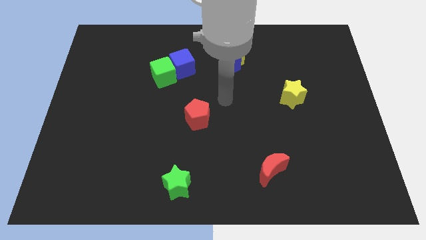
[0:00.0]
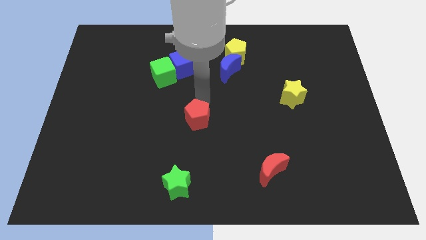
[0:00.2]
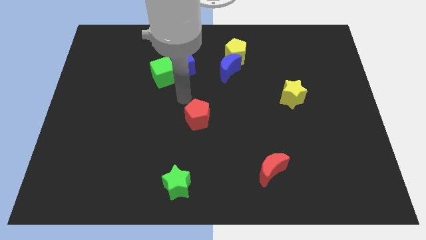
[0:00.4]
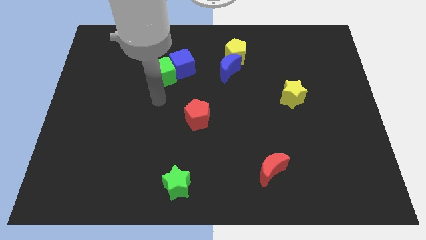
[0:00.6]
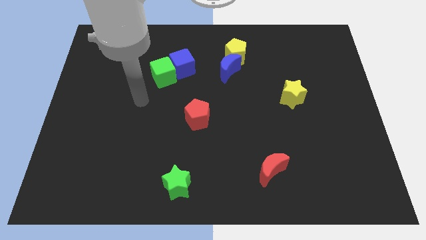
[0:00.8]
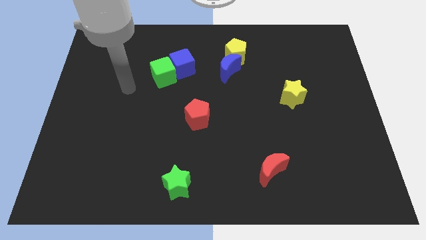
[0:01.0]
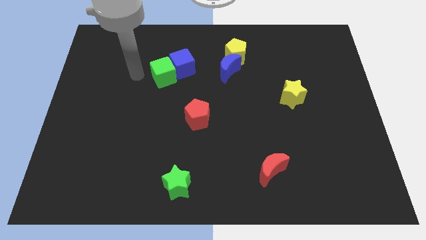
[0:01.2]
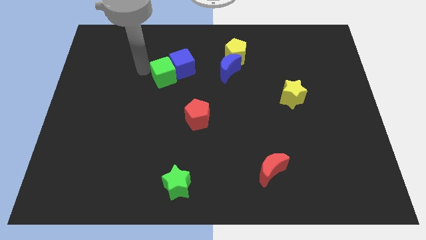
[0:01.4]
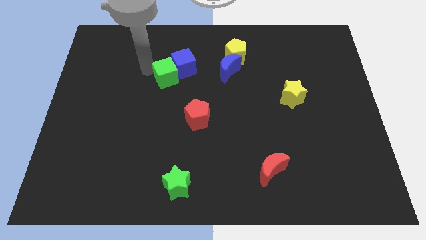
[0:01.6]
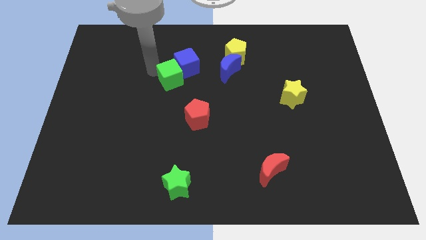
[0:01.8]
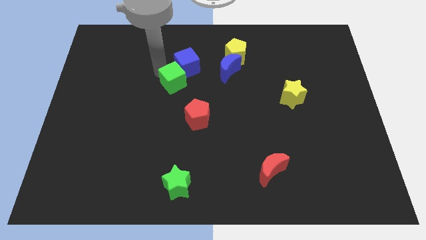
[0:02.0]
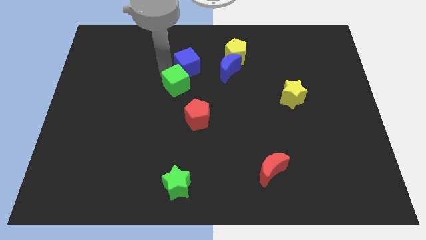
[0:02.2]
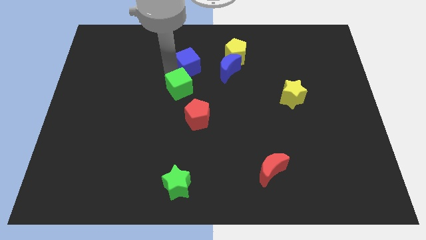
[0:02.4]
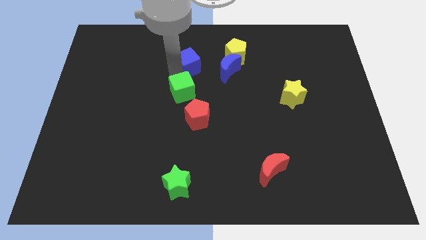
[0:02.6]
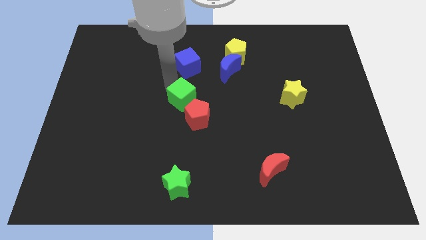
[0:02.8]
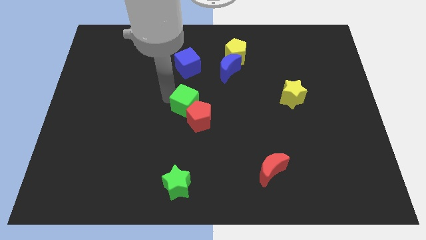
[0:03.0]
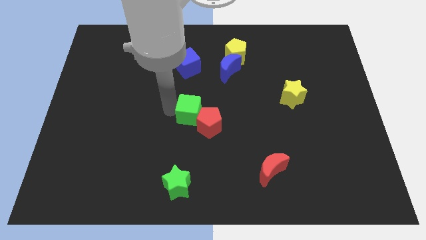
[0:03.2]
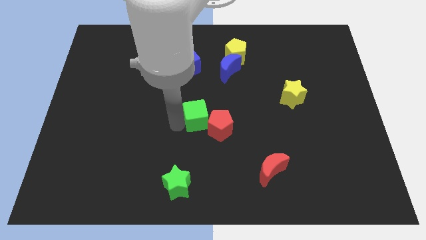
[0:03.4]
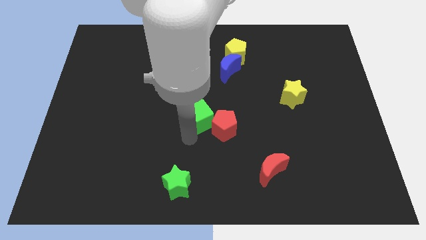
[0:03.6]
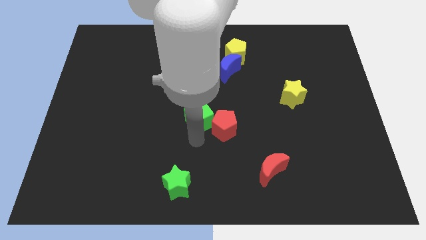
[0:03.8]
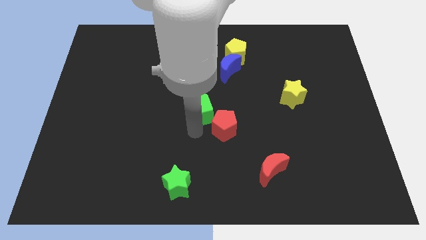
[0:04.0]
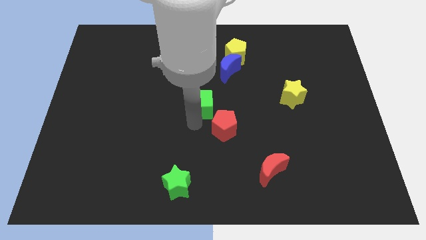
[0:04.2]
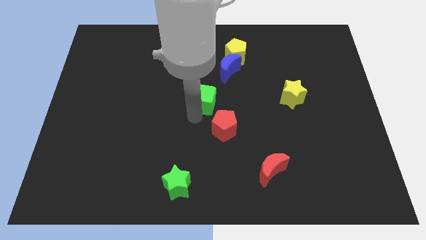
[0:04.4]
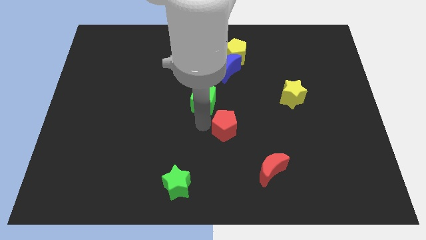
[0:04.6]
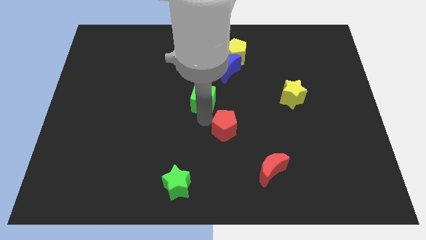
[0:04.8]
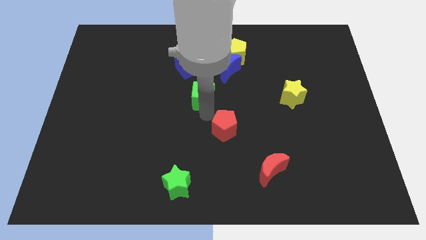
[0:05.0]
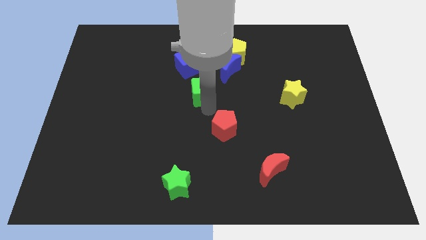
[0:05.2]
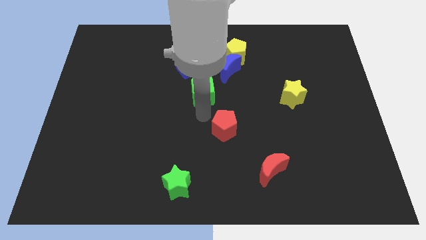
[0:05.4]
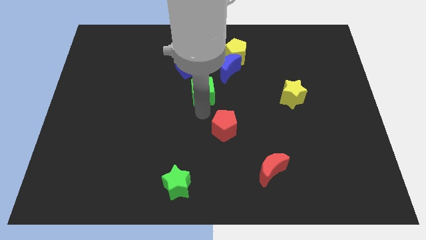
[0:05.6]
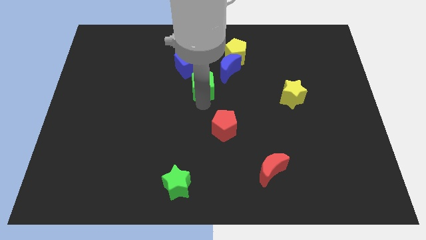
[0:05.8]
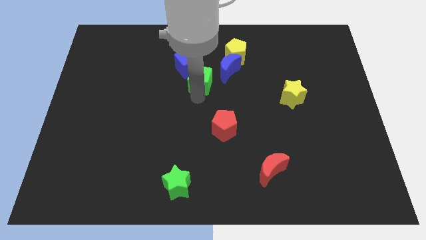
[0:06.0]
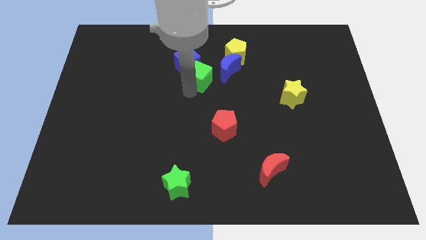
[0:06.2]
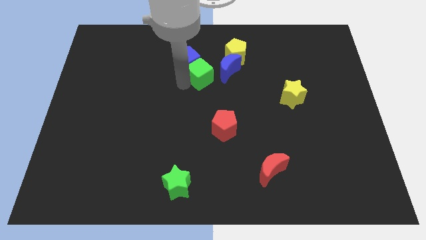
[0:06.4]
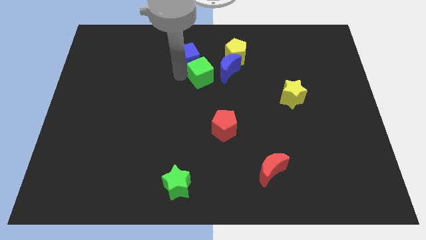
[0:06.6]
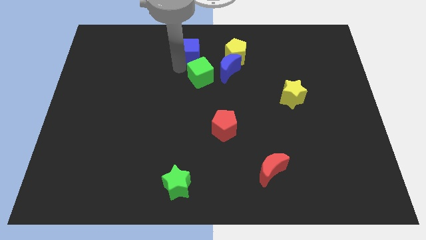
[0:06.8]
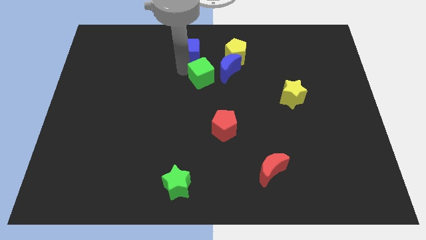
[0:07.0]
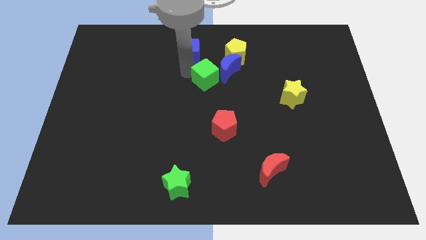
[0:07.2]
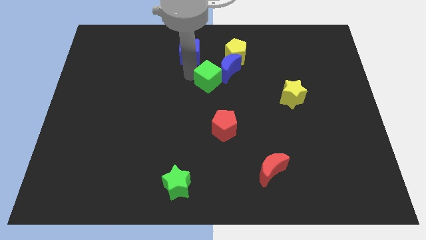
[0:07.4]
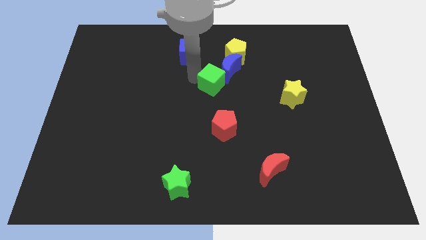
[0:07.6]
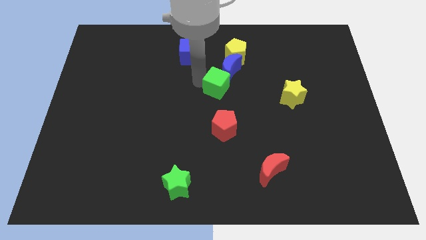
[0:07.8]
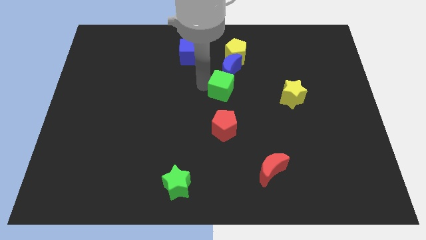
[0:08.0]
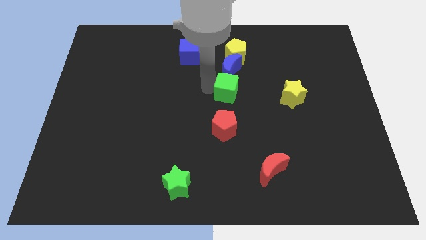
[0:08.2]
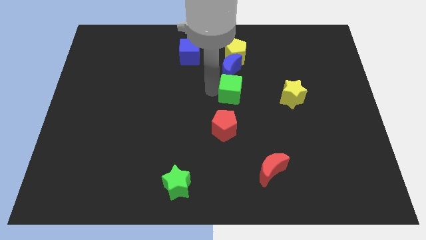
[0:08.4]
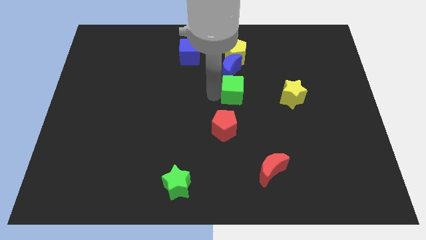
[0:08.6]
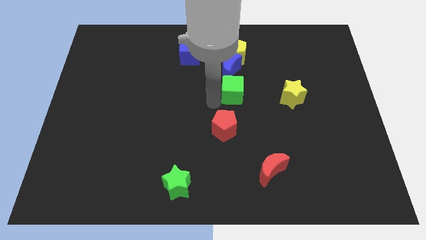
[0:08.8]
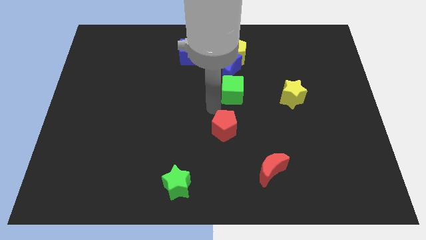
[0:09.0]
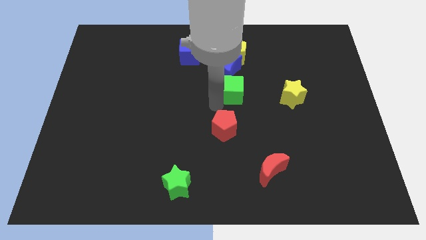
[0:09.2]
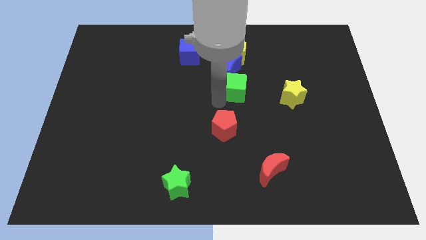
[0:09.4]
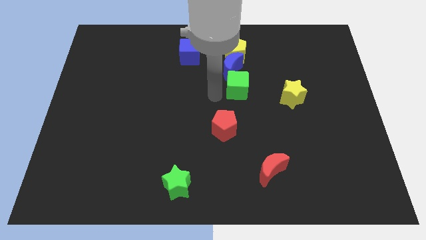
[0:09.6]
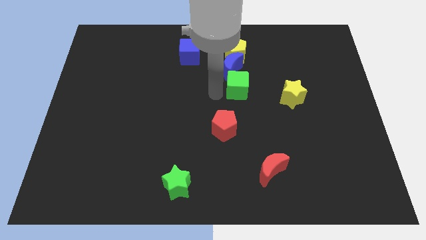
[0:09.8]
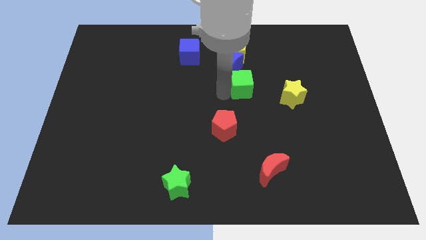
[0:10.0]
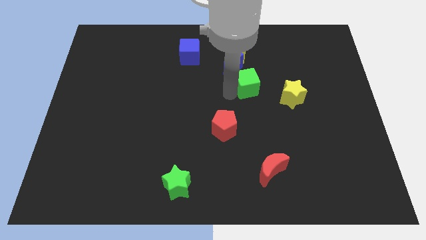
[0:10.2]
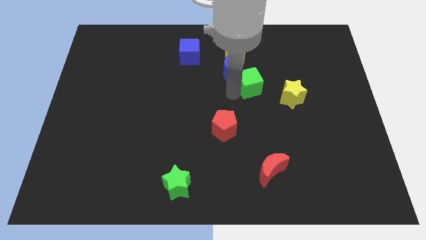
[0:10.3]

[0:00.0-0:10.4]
move the green cube to the top left side of the yellow star

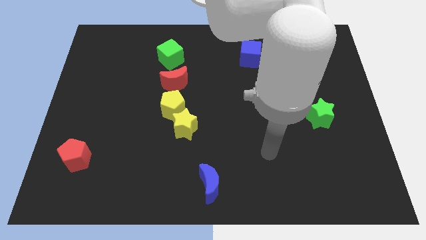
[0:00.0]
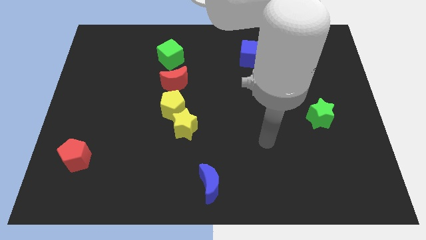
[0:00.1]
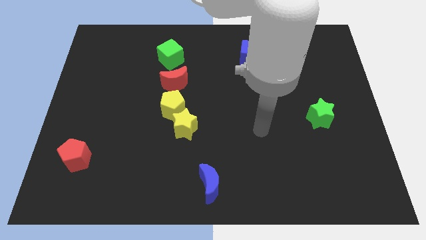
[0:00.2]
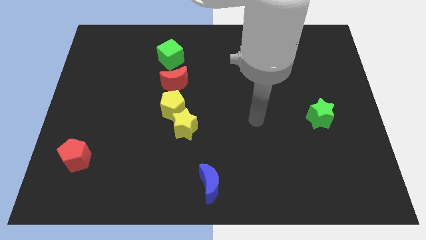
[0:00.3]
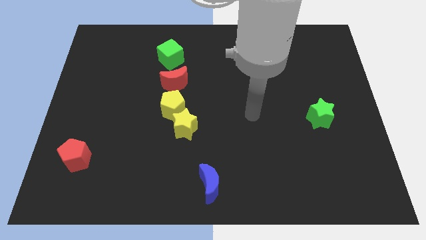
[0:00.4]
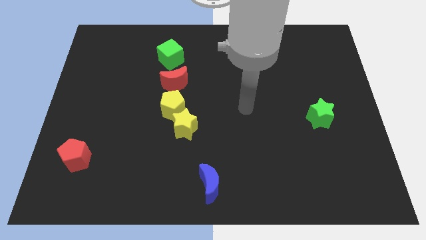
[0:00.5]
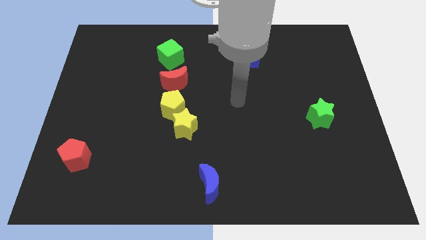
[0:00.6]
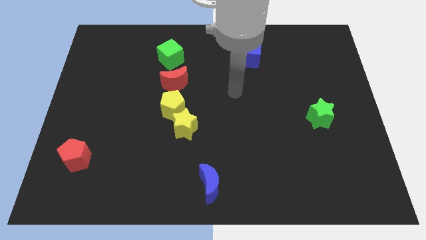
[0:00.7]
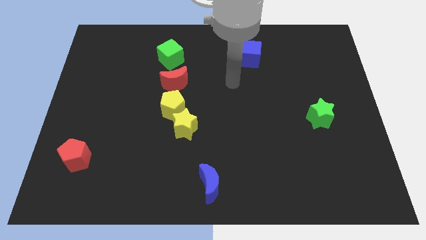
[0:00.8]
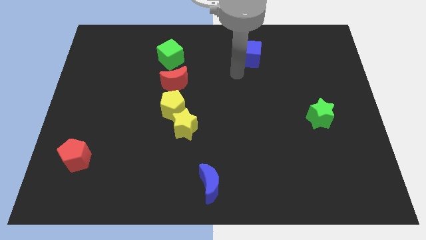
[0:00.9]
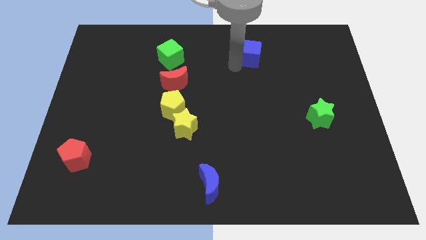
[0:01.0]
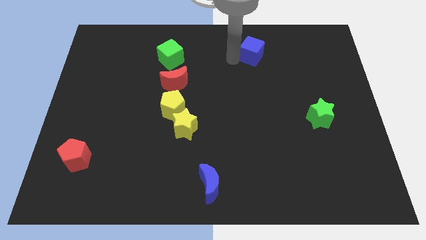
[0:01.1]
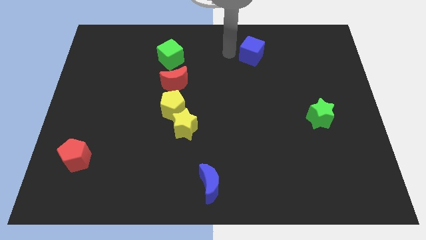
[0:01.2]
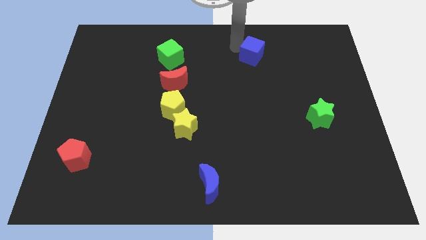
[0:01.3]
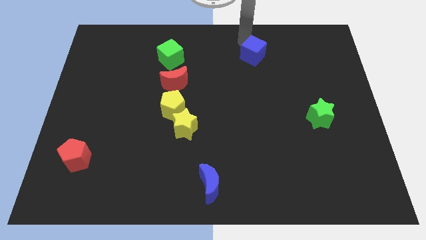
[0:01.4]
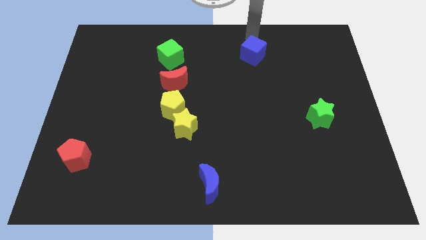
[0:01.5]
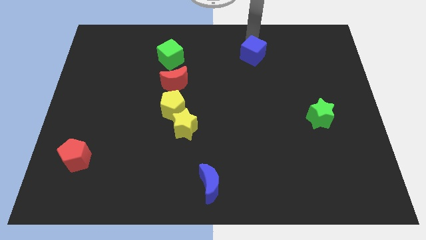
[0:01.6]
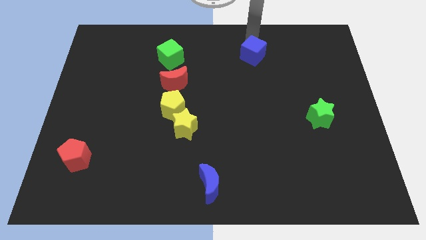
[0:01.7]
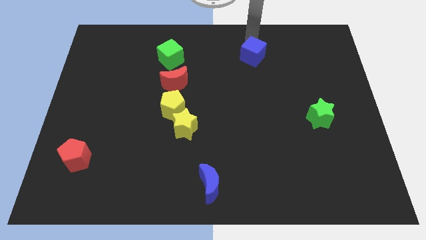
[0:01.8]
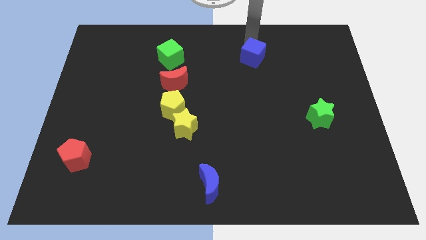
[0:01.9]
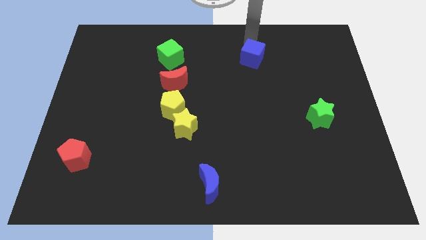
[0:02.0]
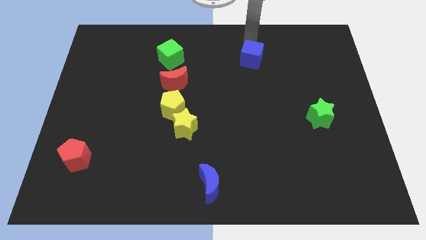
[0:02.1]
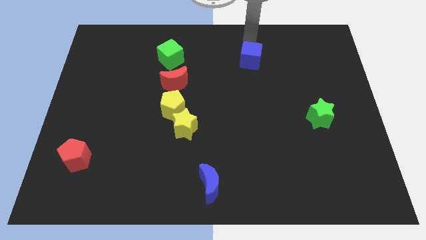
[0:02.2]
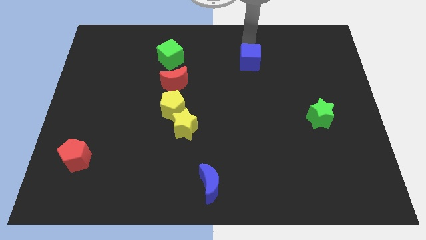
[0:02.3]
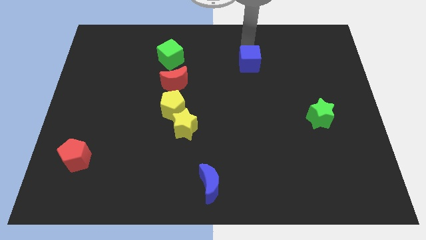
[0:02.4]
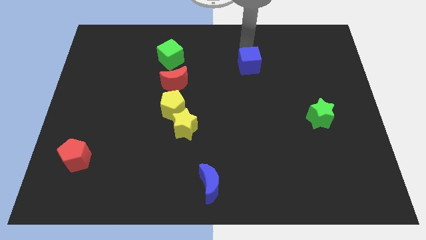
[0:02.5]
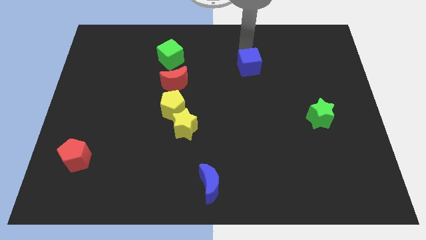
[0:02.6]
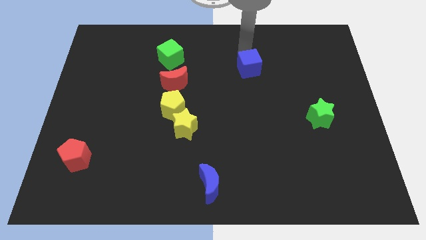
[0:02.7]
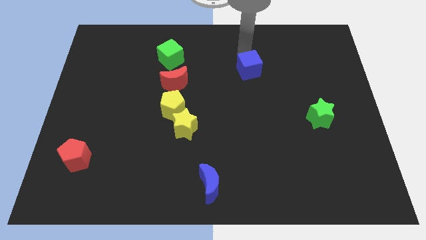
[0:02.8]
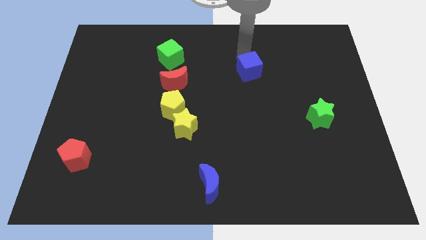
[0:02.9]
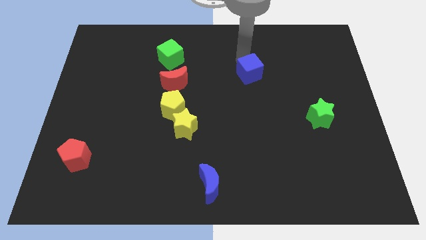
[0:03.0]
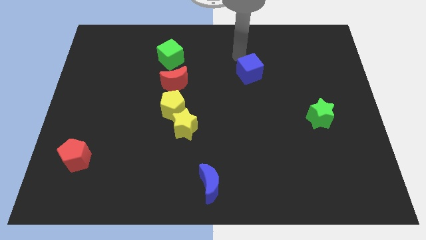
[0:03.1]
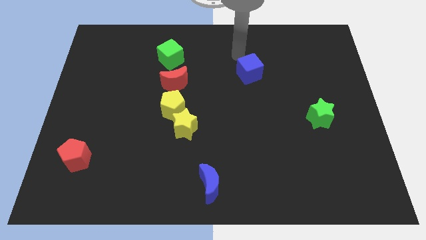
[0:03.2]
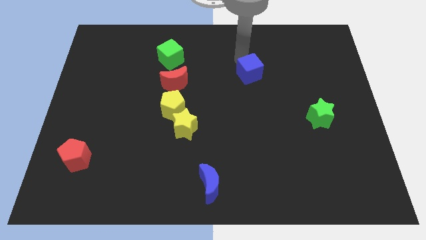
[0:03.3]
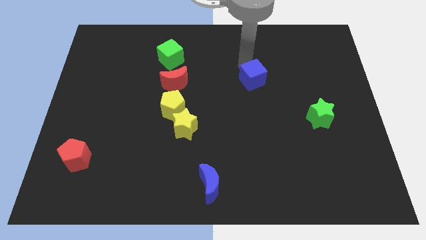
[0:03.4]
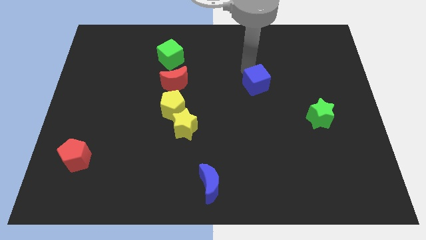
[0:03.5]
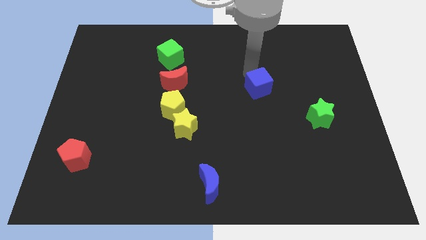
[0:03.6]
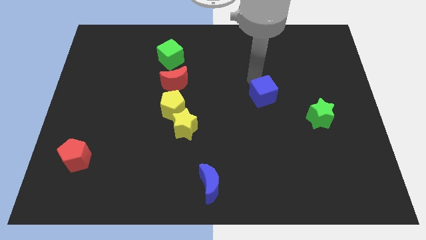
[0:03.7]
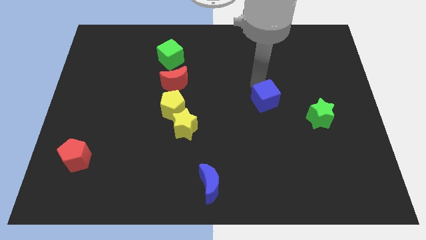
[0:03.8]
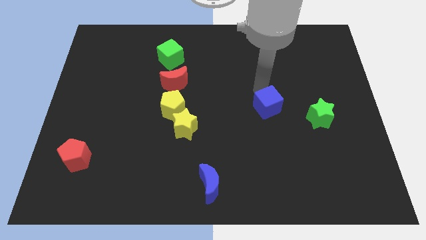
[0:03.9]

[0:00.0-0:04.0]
slide the blue cube to the left side of the green star
